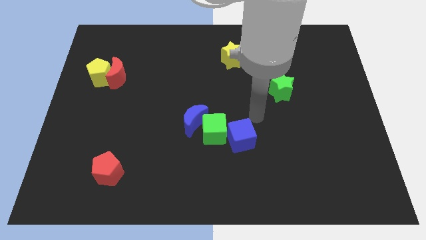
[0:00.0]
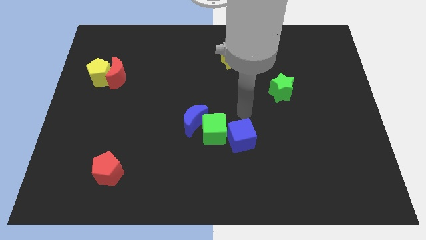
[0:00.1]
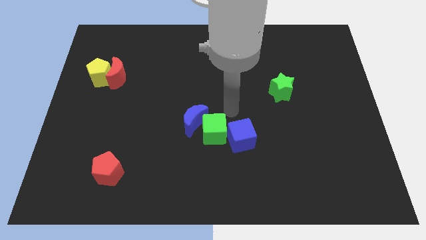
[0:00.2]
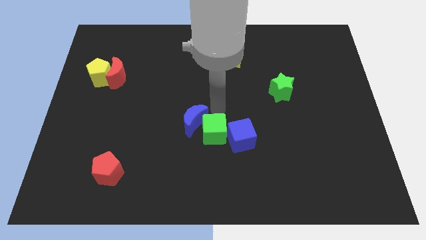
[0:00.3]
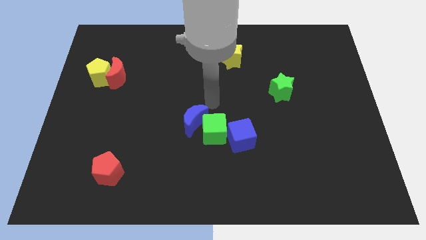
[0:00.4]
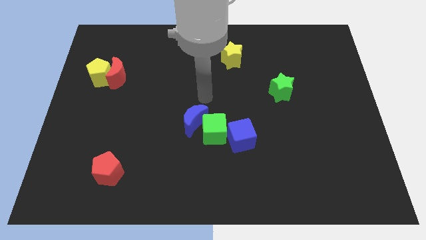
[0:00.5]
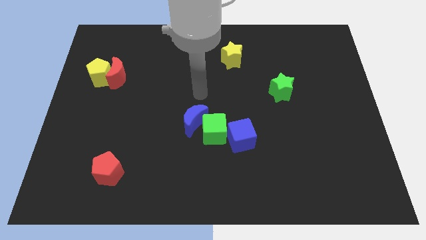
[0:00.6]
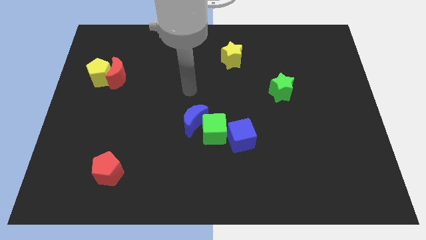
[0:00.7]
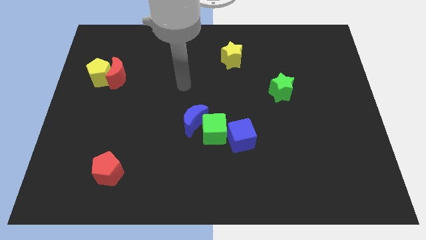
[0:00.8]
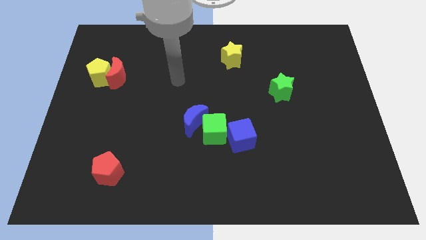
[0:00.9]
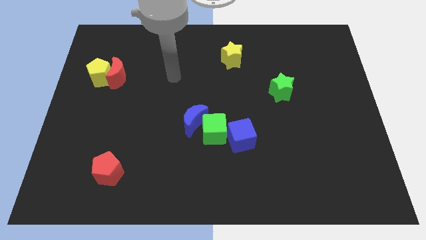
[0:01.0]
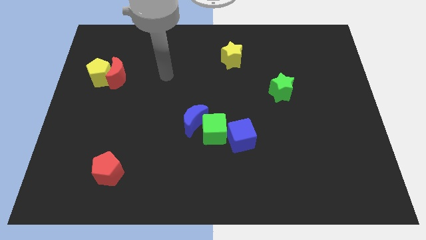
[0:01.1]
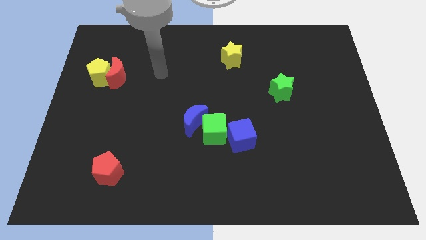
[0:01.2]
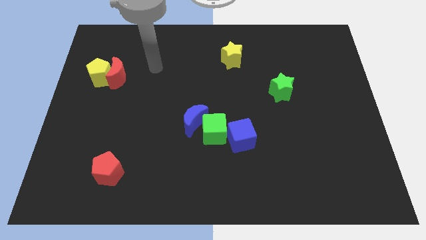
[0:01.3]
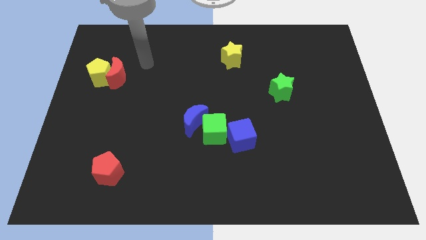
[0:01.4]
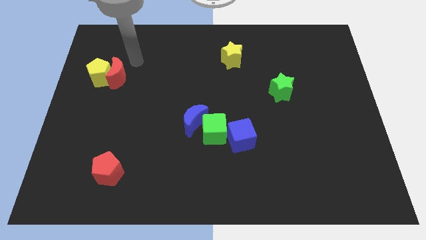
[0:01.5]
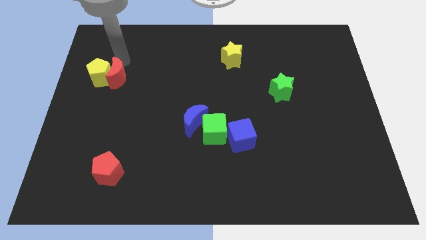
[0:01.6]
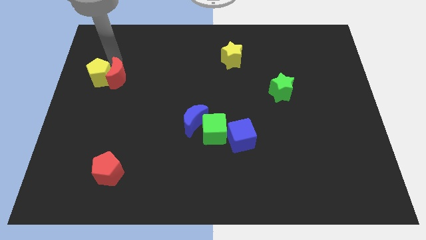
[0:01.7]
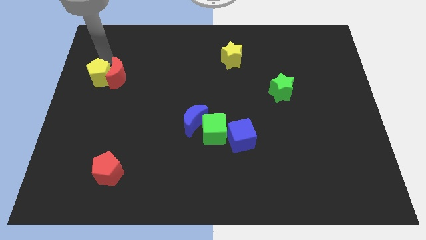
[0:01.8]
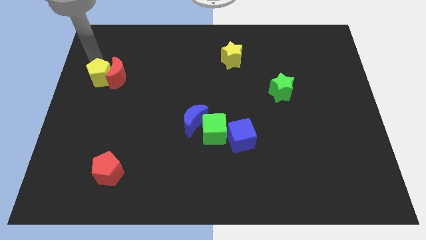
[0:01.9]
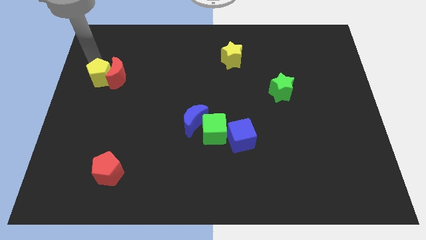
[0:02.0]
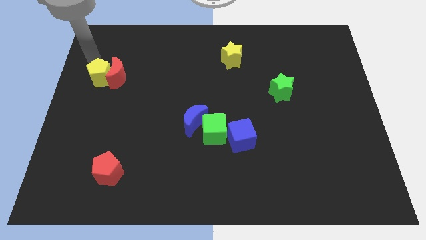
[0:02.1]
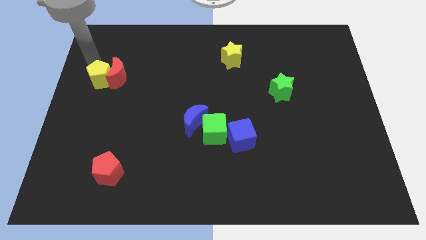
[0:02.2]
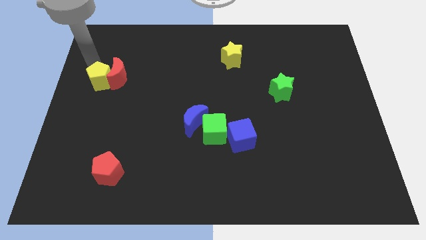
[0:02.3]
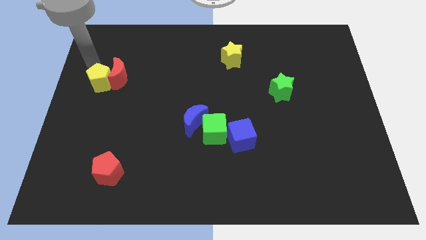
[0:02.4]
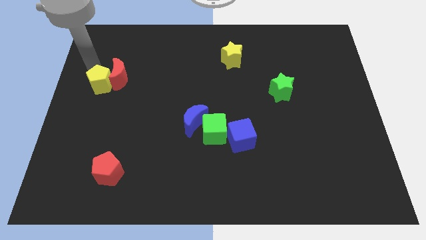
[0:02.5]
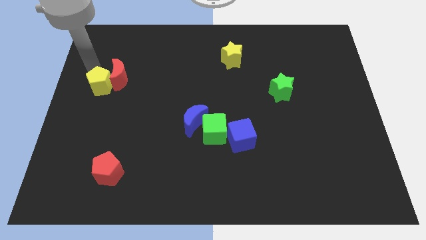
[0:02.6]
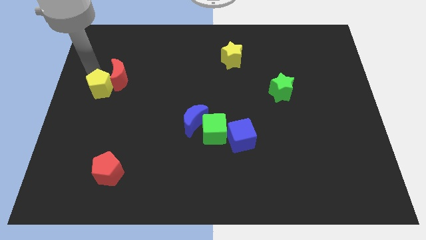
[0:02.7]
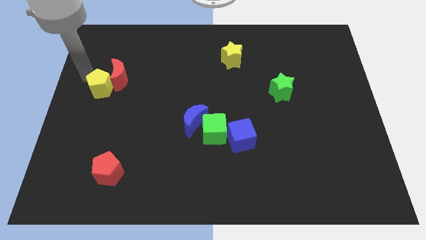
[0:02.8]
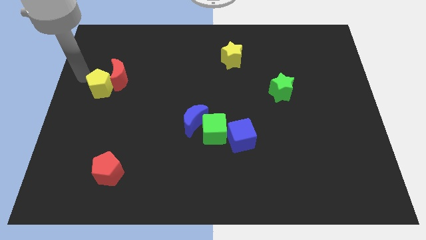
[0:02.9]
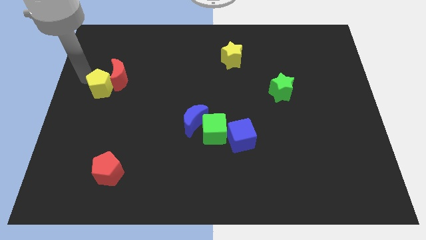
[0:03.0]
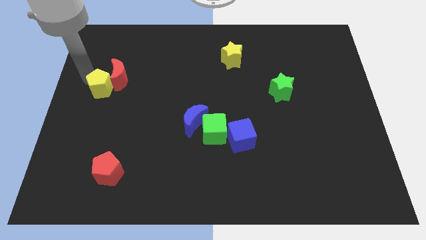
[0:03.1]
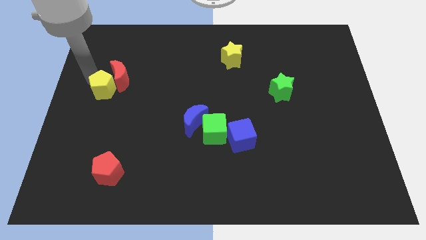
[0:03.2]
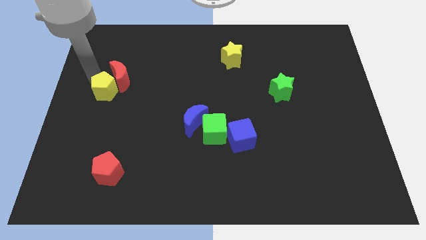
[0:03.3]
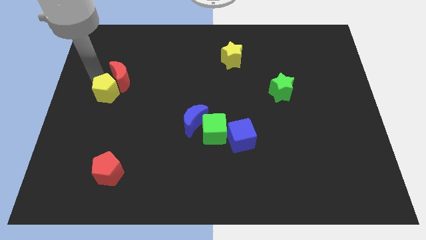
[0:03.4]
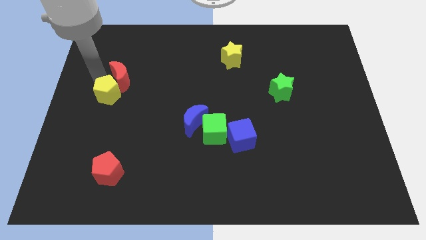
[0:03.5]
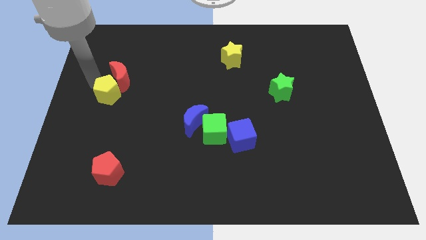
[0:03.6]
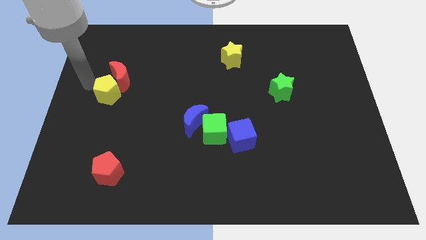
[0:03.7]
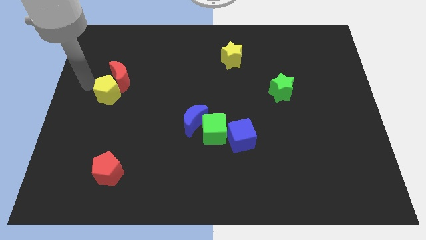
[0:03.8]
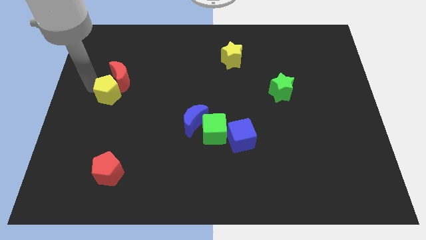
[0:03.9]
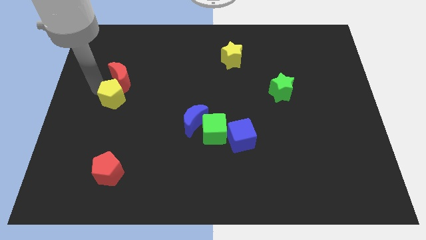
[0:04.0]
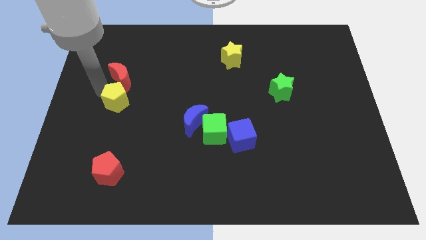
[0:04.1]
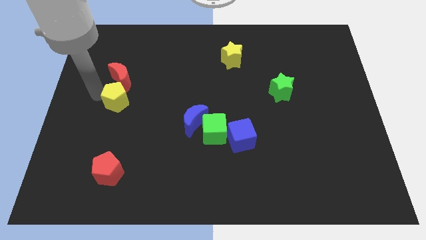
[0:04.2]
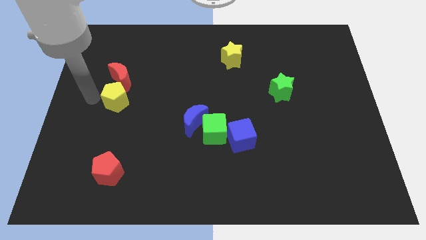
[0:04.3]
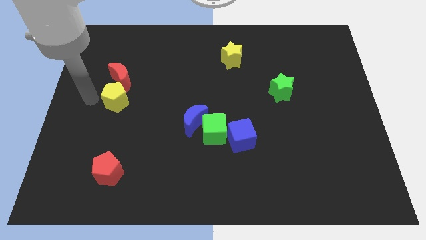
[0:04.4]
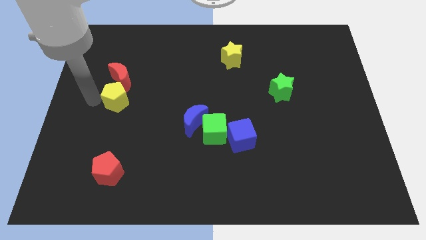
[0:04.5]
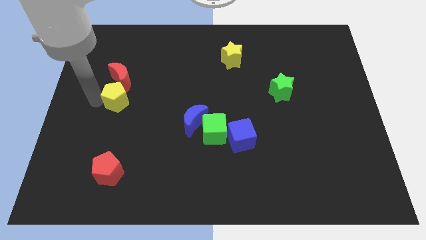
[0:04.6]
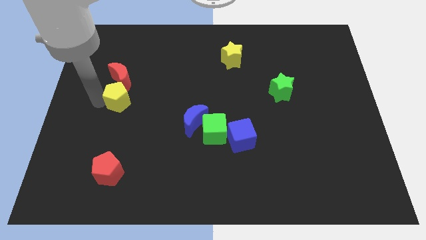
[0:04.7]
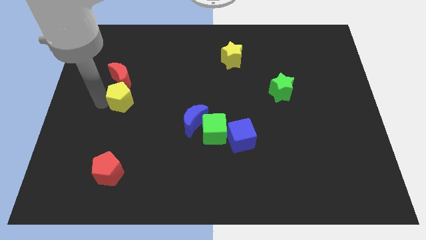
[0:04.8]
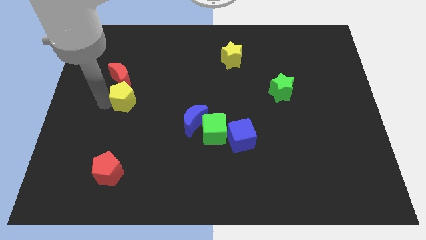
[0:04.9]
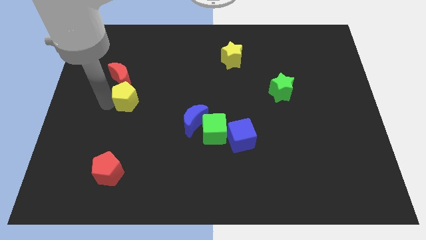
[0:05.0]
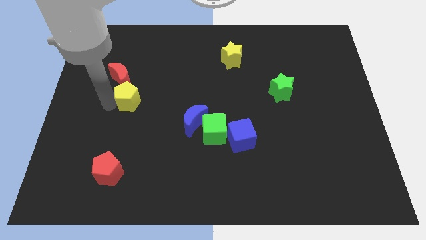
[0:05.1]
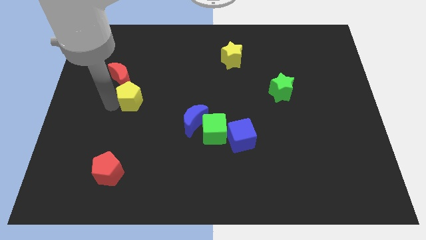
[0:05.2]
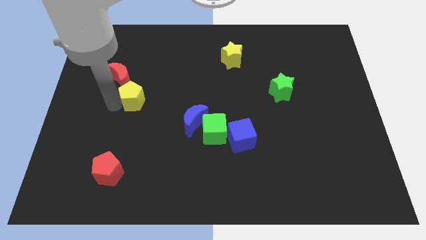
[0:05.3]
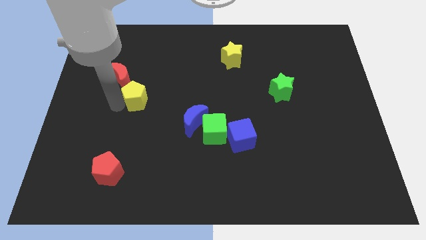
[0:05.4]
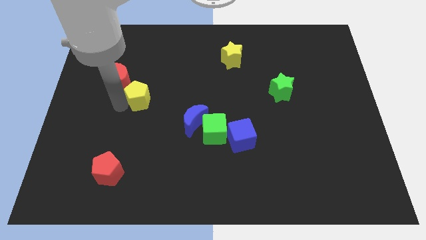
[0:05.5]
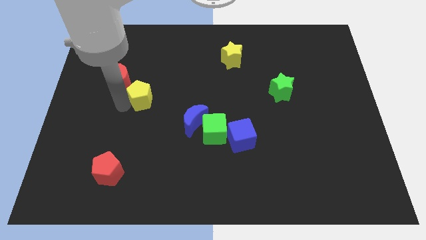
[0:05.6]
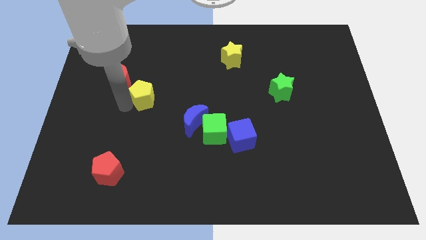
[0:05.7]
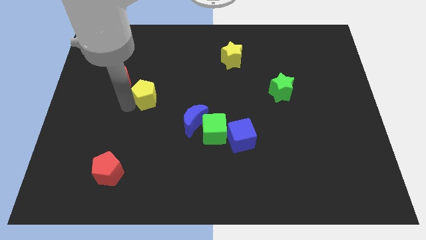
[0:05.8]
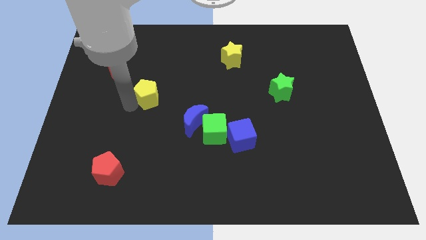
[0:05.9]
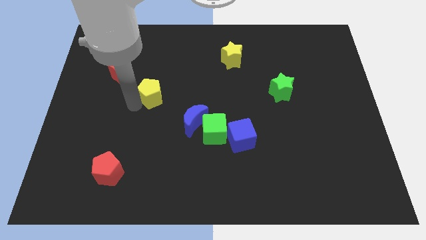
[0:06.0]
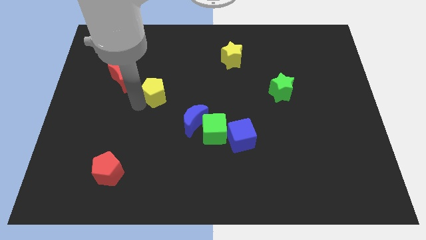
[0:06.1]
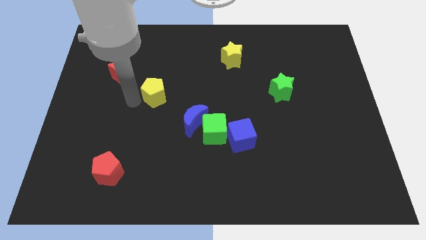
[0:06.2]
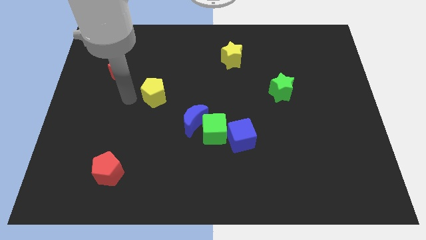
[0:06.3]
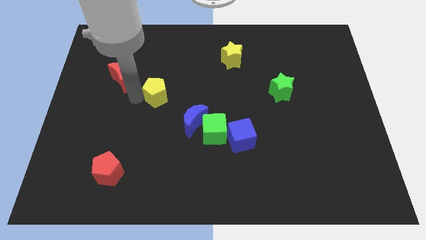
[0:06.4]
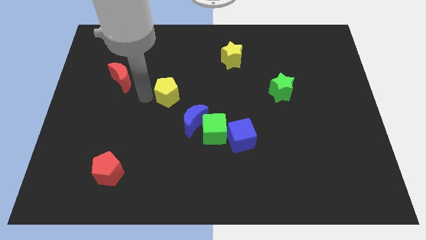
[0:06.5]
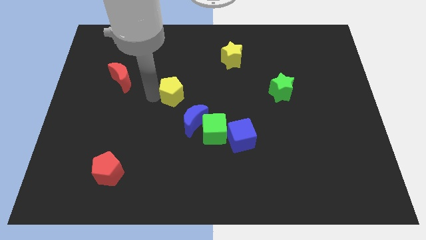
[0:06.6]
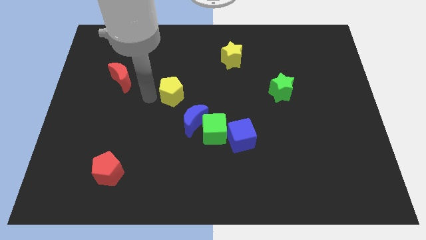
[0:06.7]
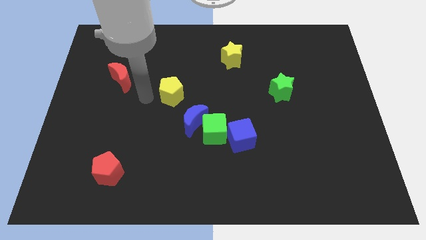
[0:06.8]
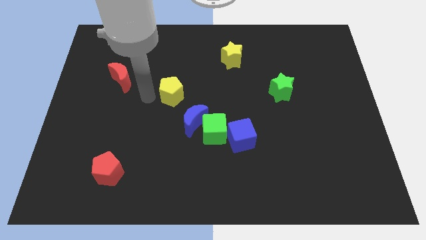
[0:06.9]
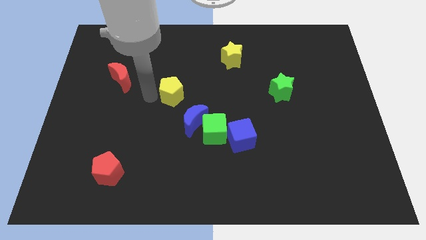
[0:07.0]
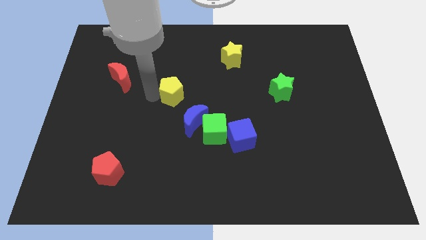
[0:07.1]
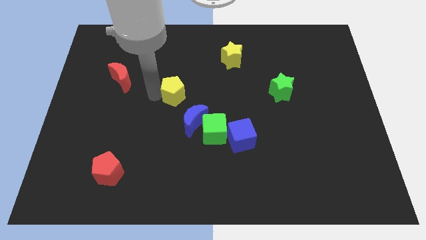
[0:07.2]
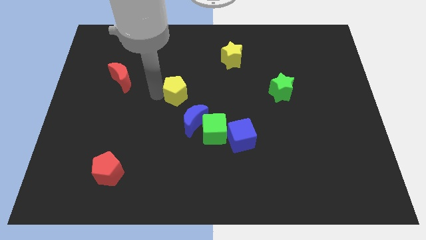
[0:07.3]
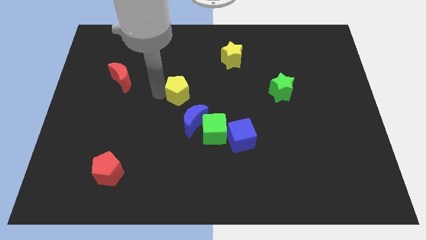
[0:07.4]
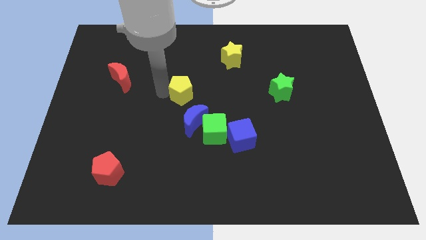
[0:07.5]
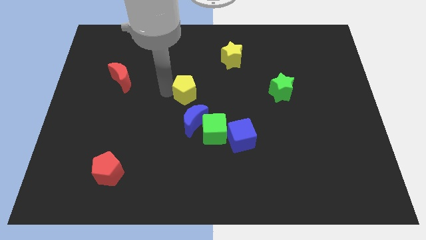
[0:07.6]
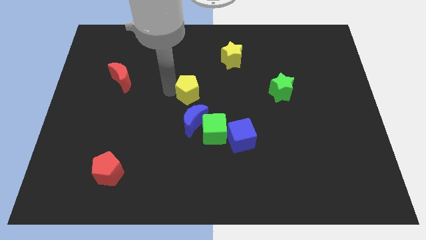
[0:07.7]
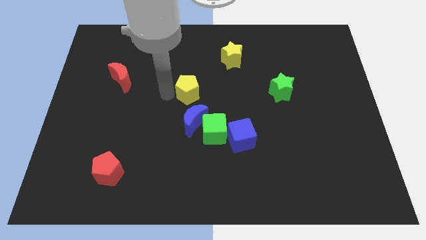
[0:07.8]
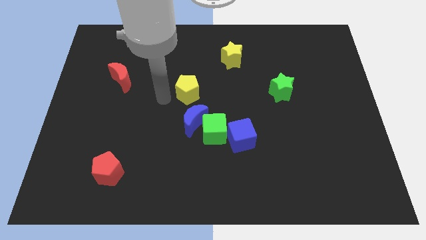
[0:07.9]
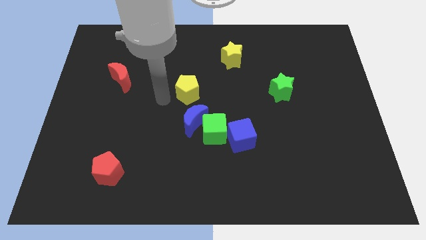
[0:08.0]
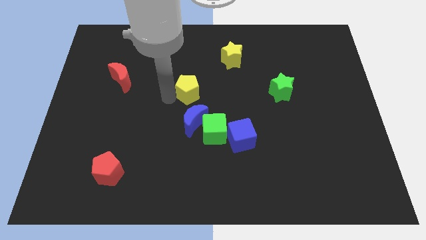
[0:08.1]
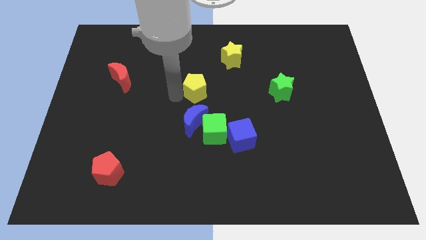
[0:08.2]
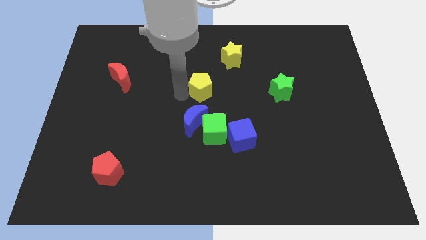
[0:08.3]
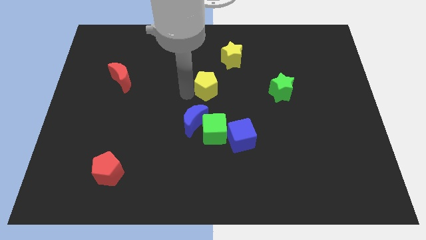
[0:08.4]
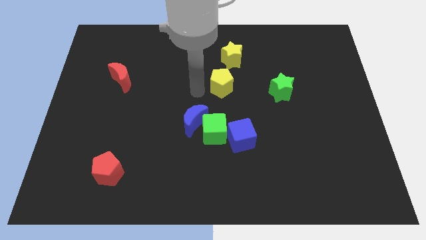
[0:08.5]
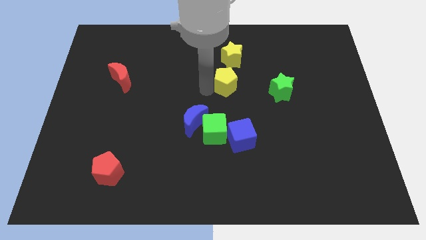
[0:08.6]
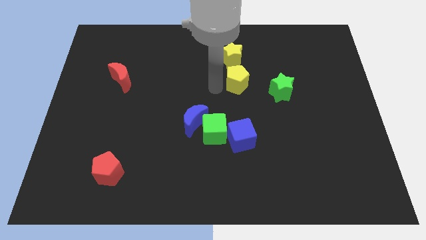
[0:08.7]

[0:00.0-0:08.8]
slide the yellow pentagon diagonally down and to the right of the yellow star
